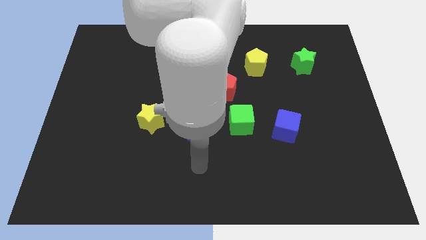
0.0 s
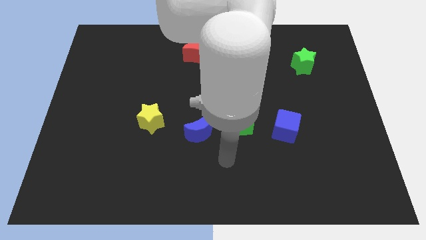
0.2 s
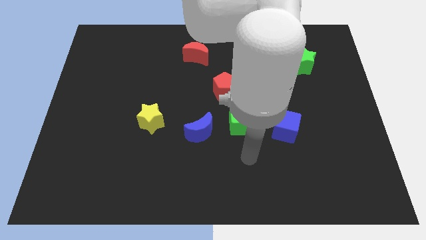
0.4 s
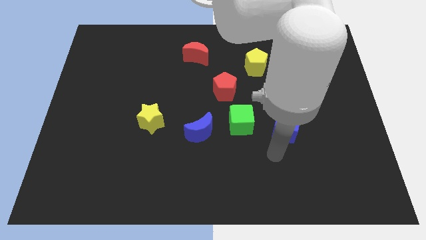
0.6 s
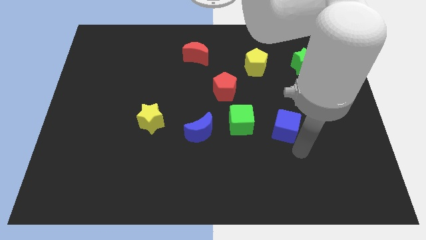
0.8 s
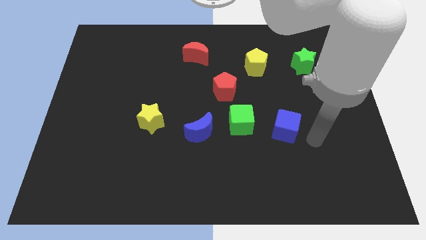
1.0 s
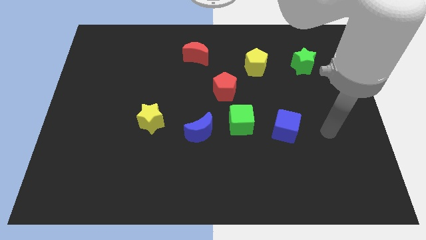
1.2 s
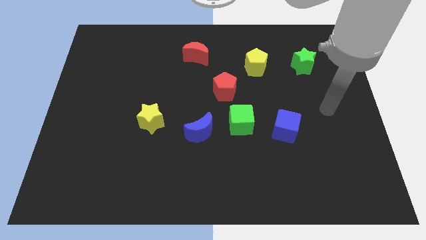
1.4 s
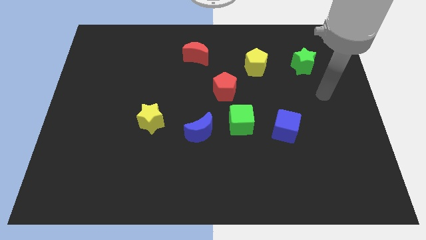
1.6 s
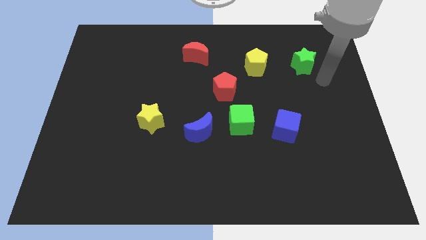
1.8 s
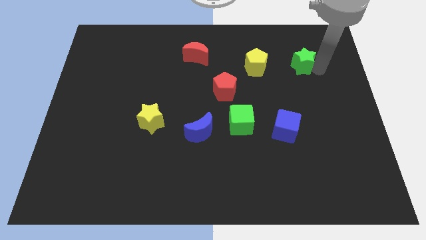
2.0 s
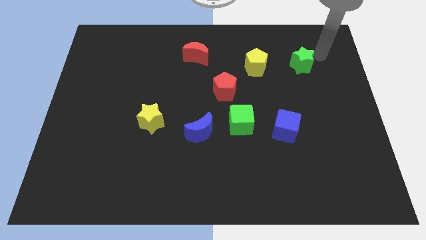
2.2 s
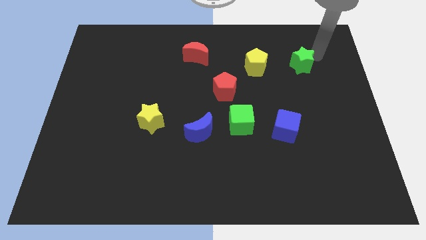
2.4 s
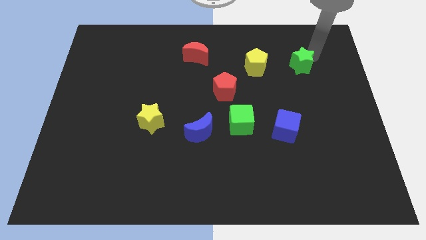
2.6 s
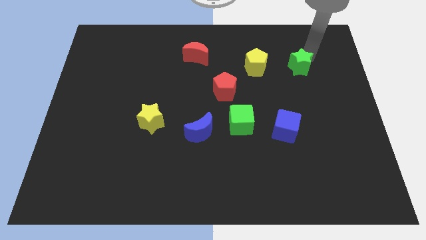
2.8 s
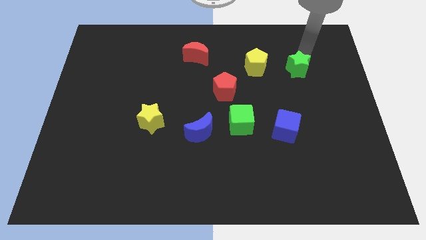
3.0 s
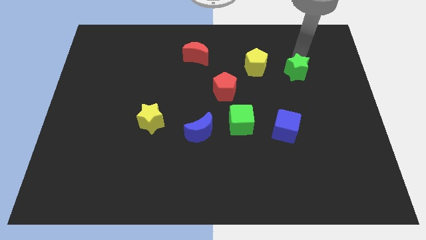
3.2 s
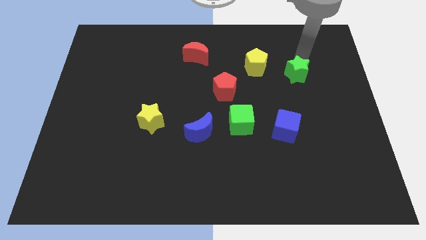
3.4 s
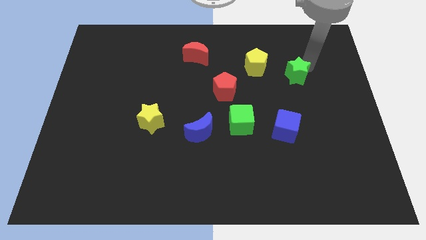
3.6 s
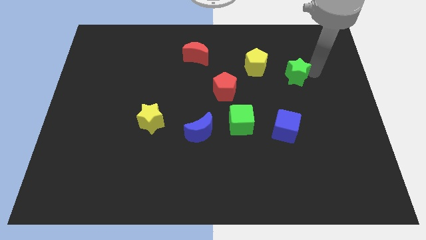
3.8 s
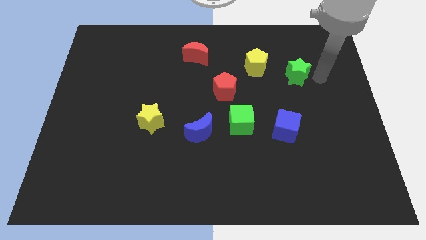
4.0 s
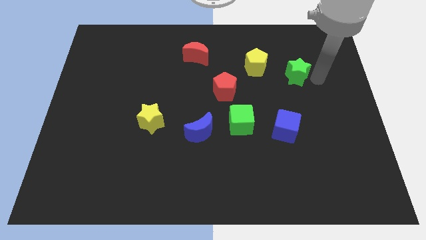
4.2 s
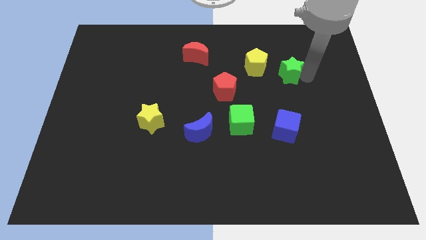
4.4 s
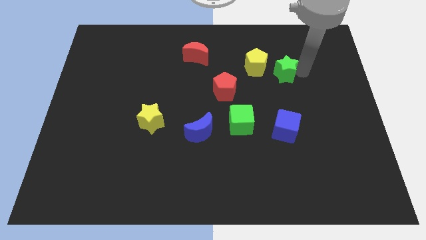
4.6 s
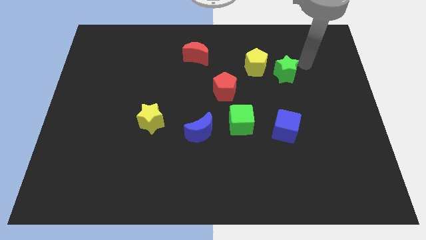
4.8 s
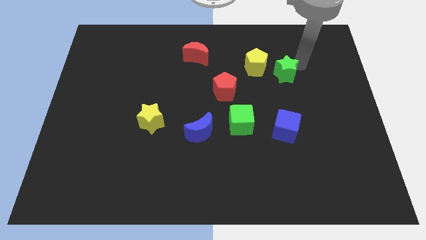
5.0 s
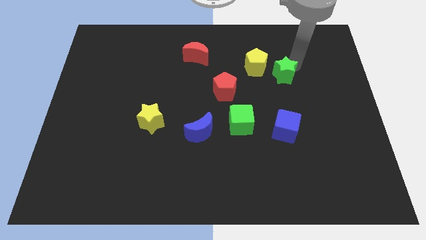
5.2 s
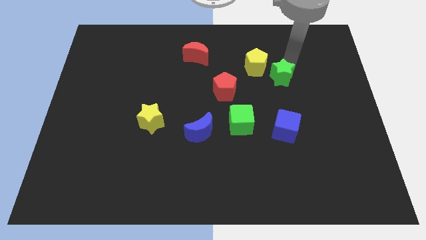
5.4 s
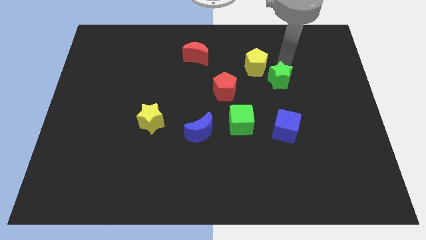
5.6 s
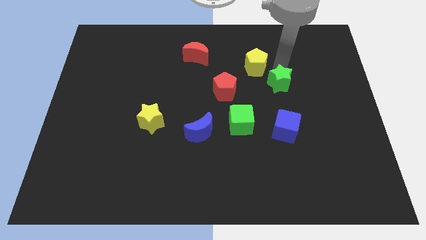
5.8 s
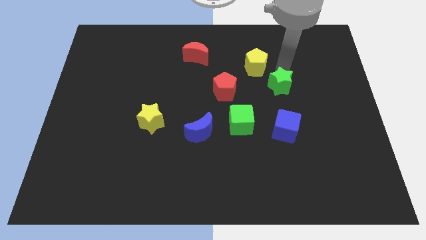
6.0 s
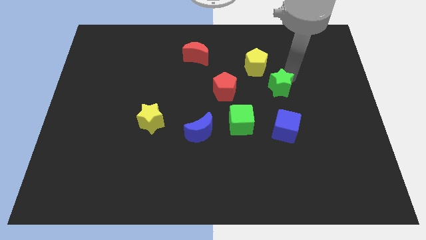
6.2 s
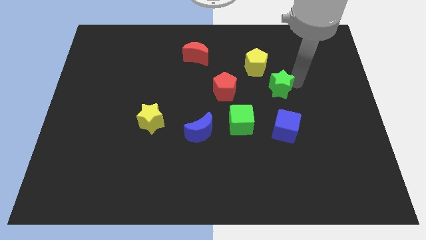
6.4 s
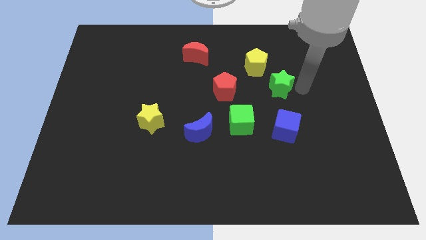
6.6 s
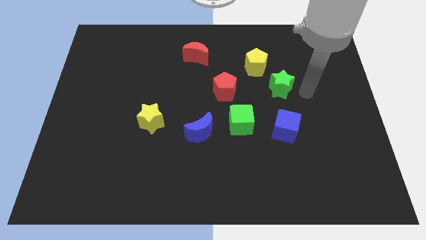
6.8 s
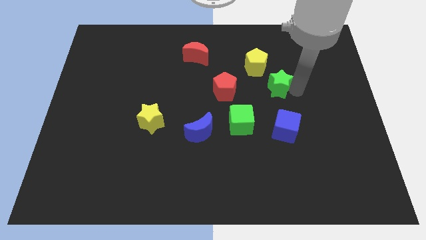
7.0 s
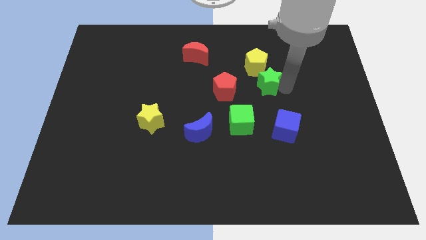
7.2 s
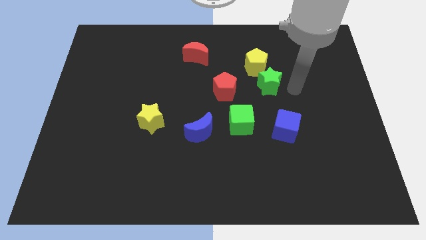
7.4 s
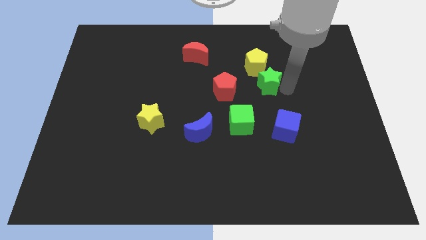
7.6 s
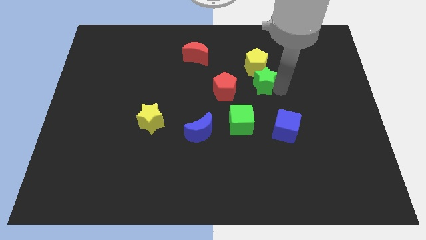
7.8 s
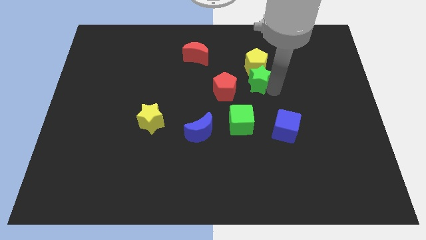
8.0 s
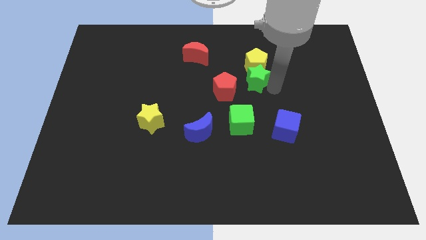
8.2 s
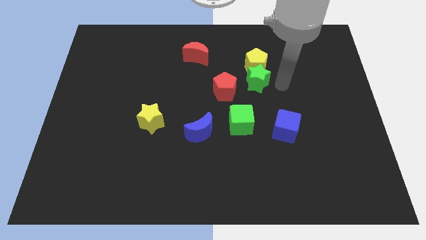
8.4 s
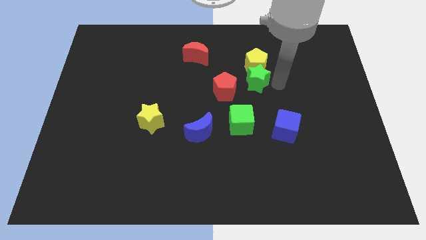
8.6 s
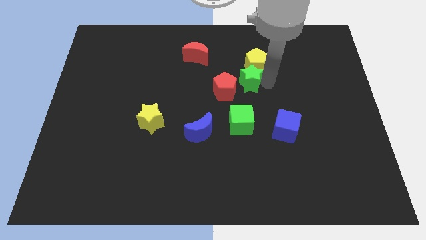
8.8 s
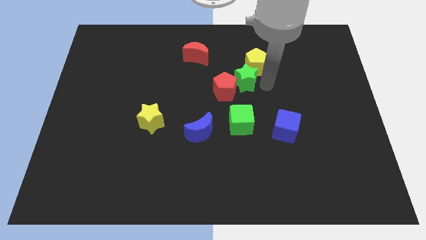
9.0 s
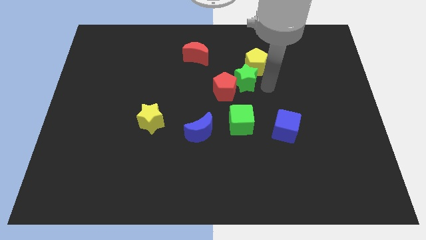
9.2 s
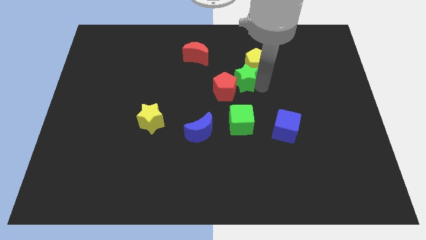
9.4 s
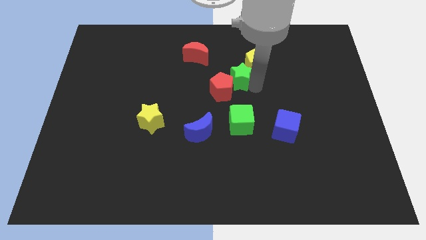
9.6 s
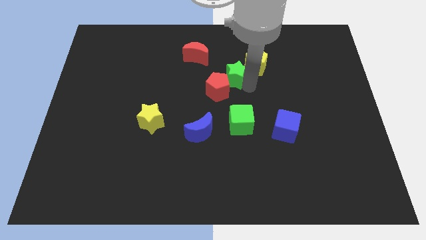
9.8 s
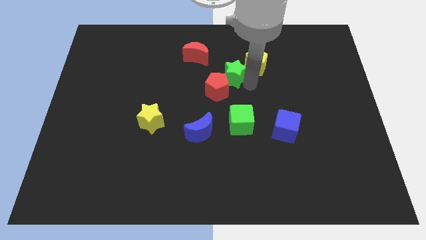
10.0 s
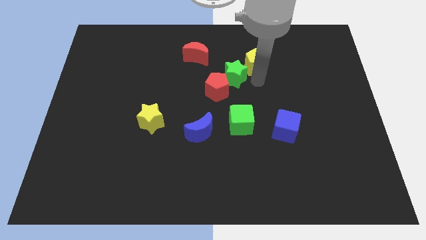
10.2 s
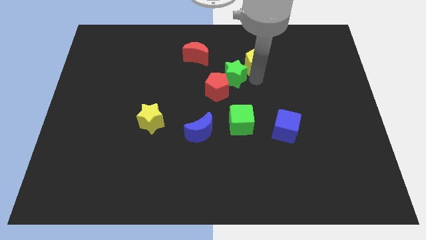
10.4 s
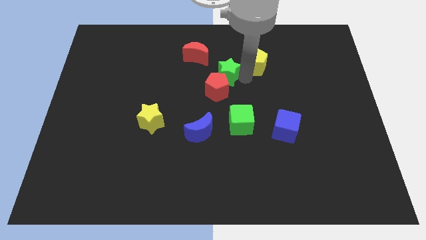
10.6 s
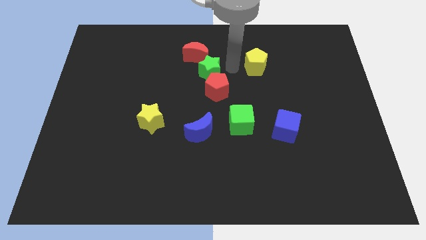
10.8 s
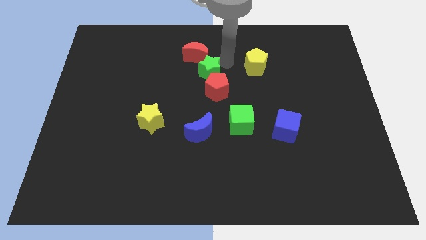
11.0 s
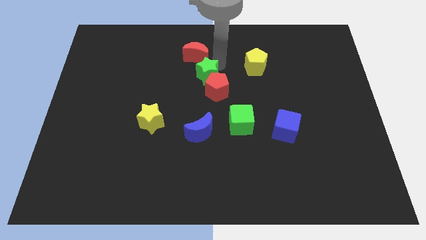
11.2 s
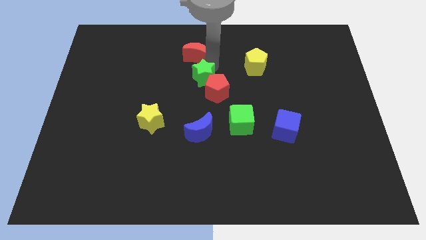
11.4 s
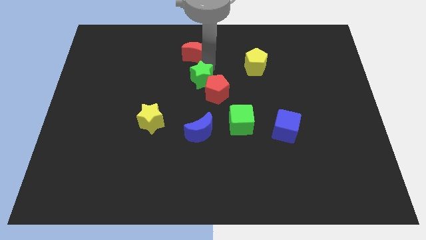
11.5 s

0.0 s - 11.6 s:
push the green star left of the red pentagon

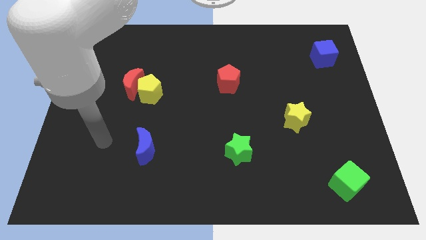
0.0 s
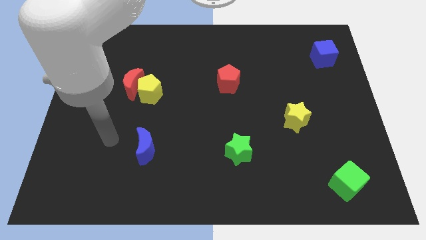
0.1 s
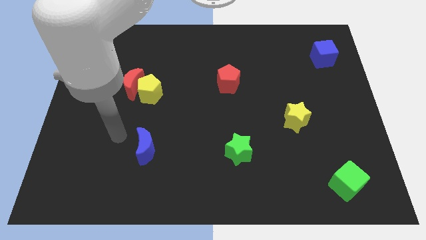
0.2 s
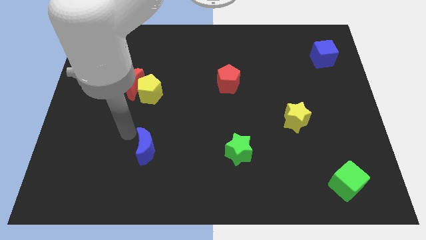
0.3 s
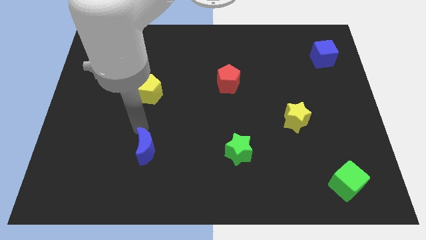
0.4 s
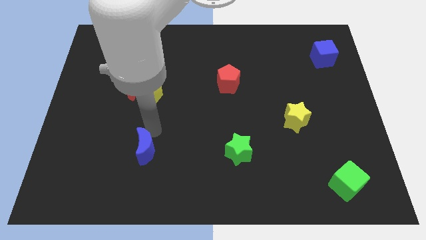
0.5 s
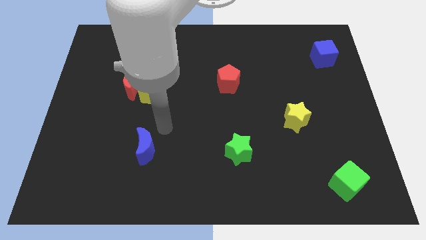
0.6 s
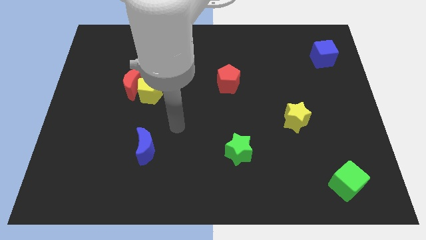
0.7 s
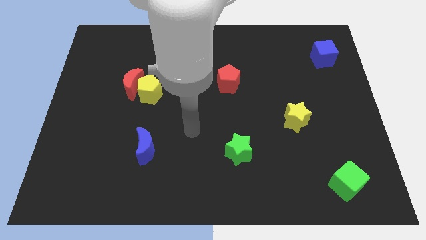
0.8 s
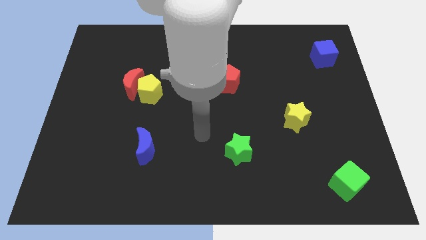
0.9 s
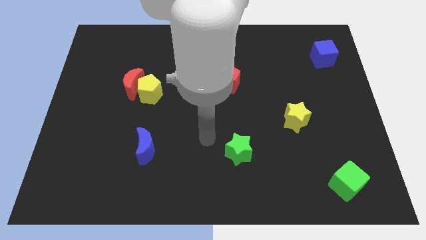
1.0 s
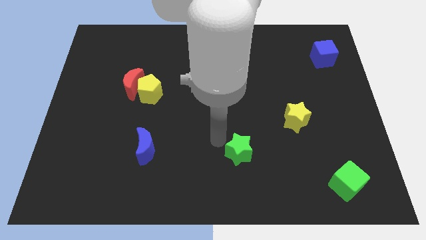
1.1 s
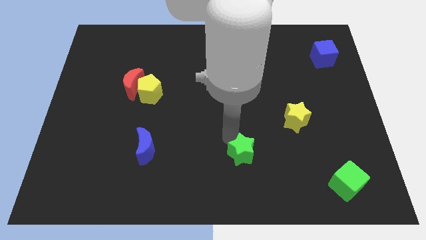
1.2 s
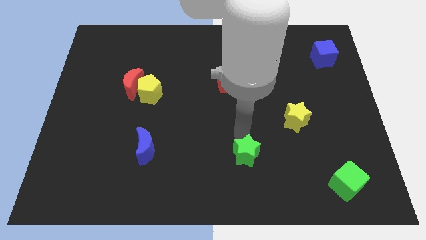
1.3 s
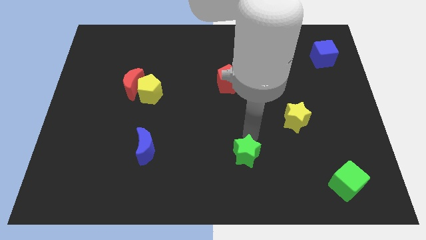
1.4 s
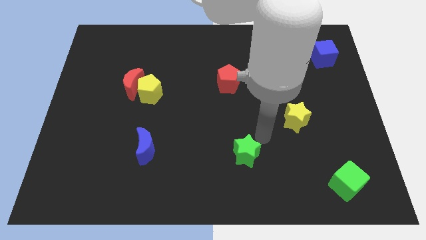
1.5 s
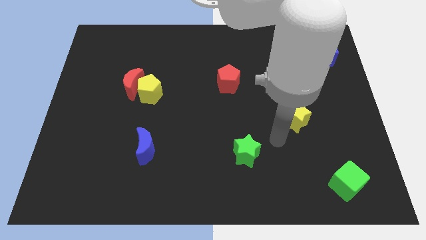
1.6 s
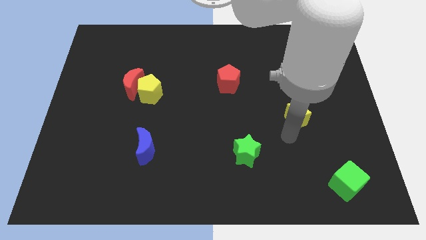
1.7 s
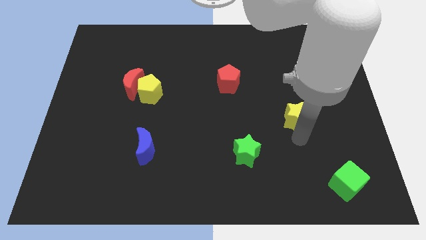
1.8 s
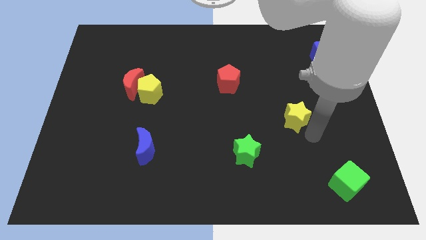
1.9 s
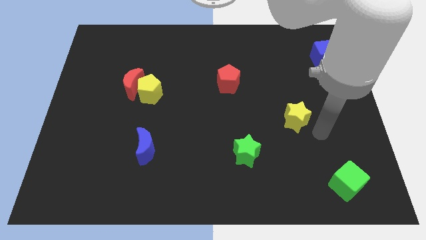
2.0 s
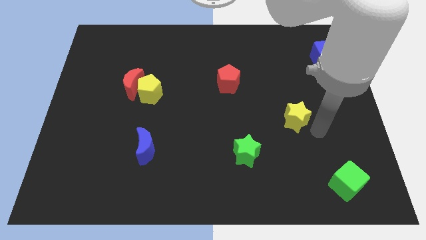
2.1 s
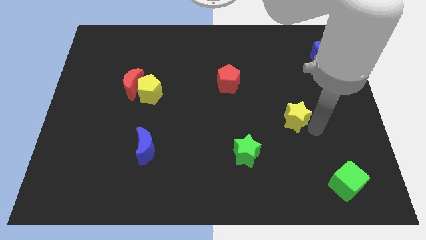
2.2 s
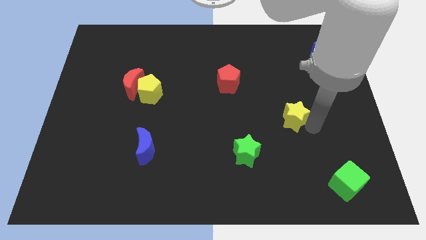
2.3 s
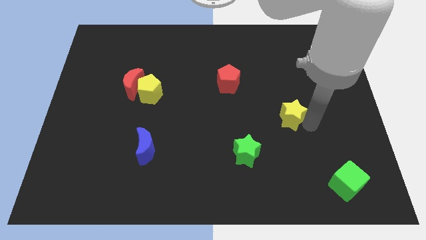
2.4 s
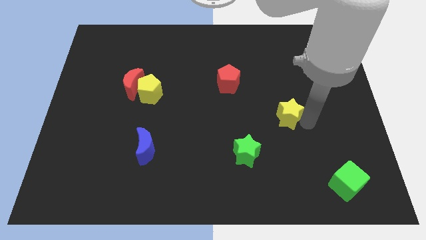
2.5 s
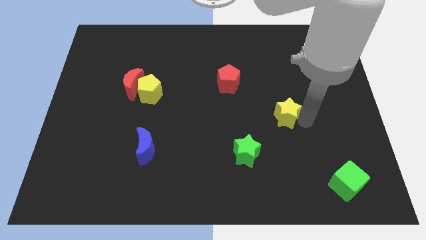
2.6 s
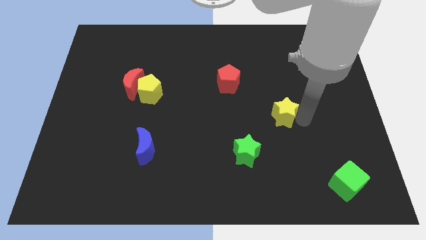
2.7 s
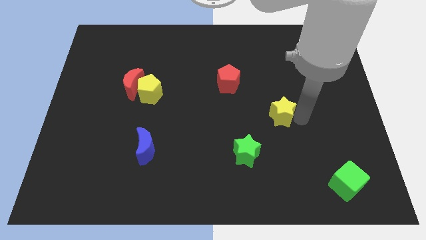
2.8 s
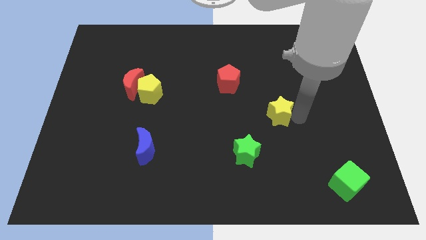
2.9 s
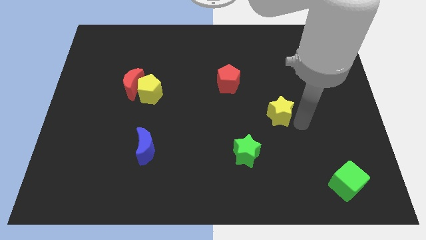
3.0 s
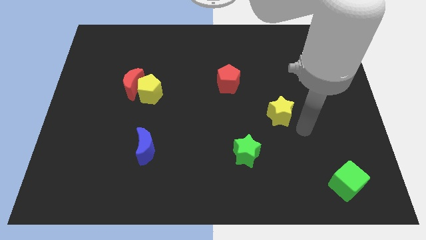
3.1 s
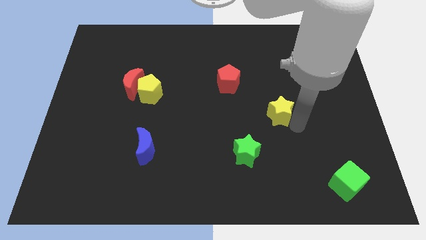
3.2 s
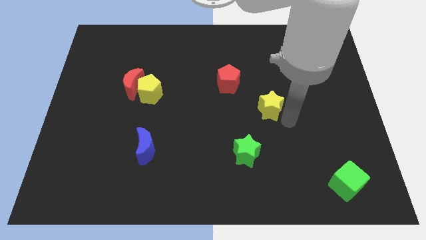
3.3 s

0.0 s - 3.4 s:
put the yellow star to the bottom right side of the red pentagon
